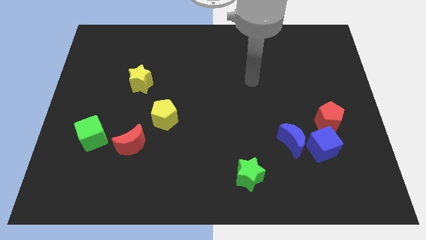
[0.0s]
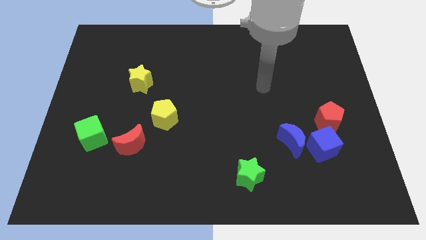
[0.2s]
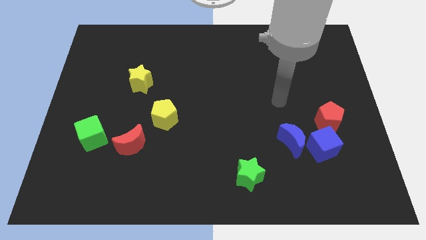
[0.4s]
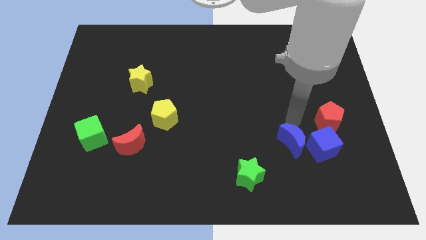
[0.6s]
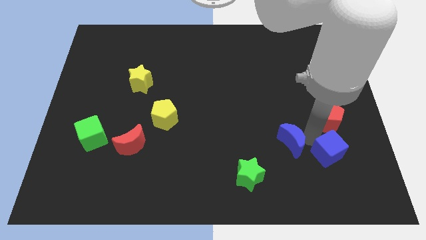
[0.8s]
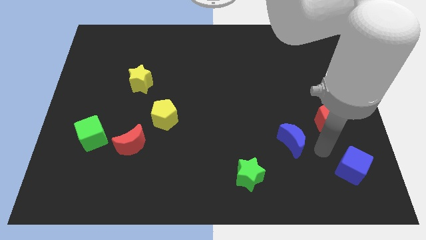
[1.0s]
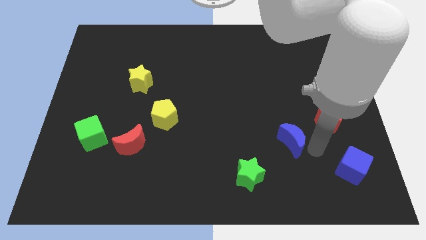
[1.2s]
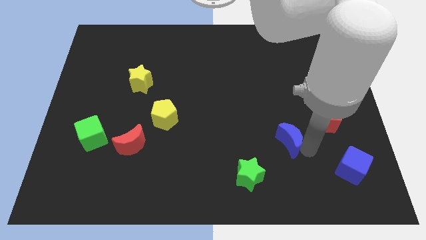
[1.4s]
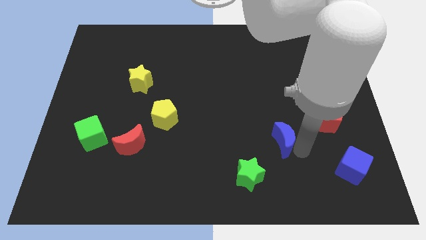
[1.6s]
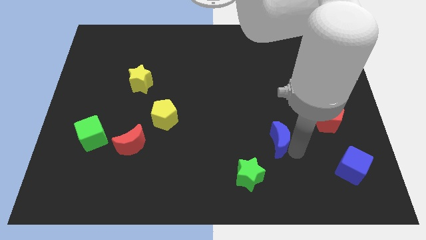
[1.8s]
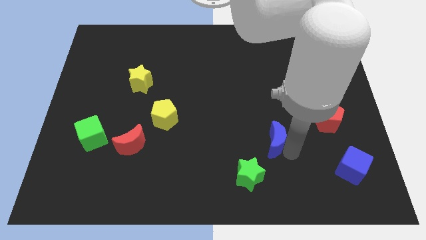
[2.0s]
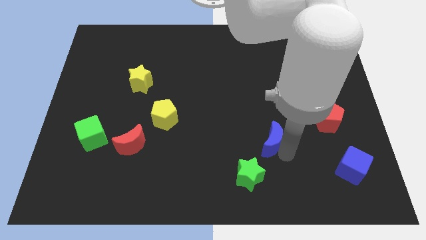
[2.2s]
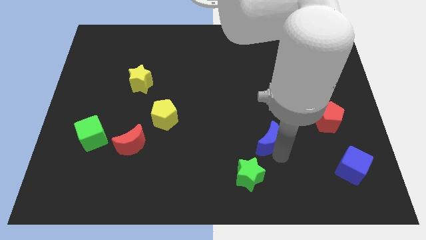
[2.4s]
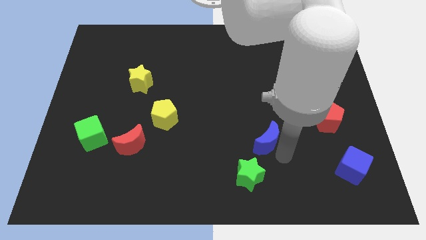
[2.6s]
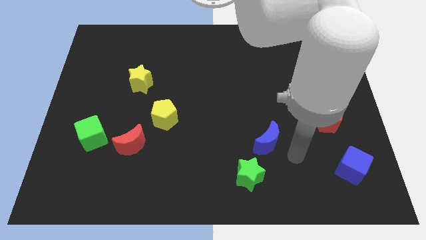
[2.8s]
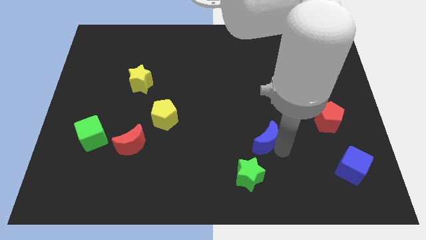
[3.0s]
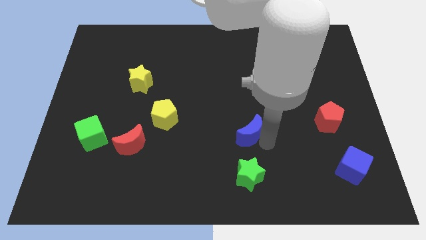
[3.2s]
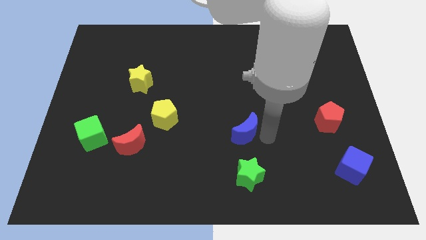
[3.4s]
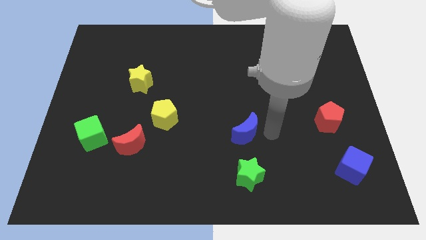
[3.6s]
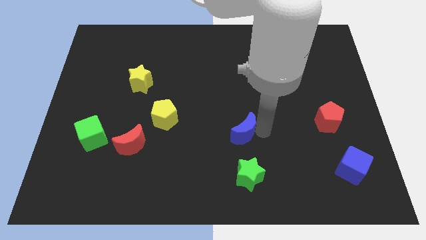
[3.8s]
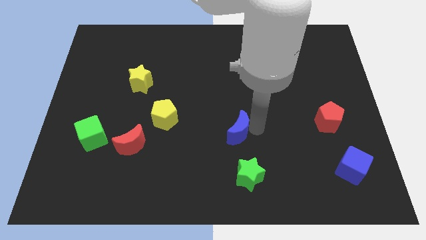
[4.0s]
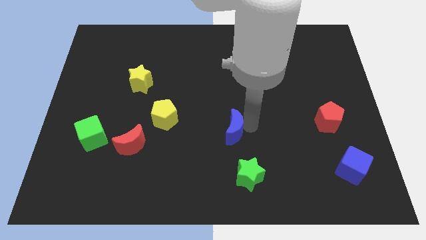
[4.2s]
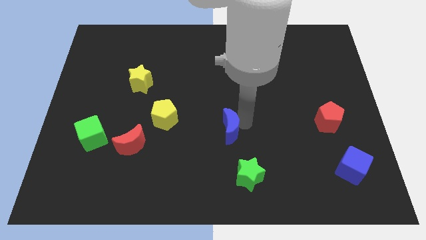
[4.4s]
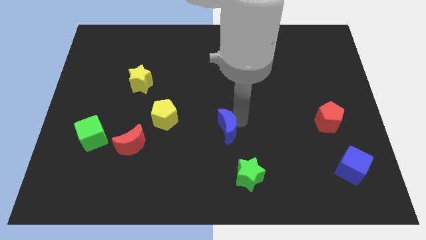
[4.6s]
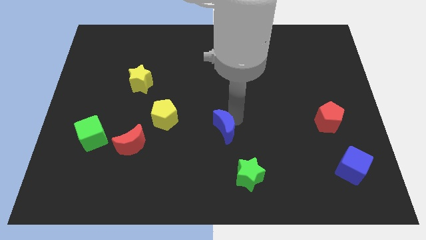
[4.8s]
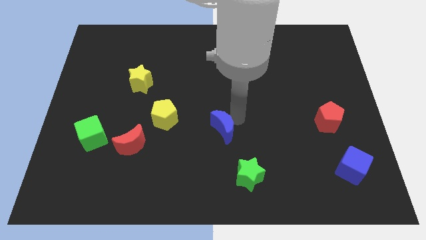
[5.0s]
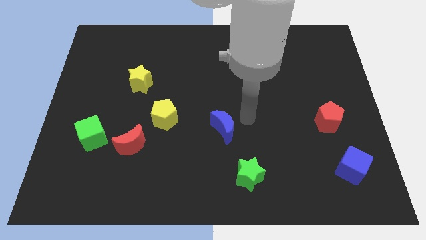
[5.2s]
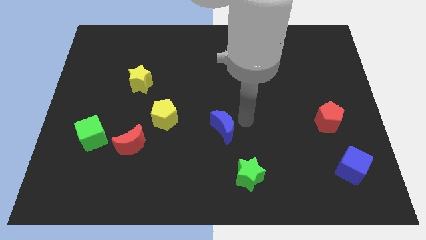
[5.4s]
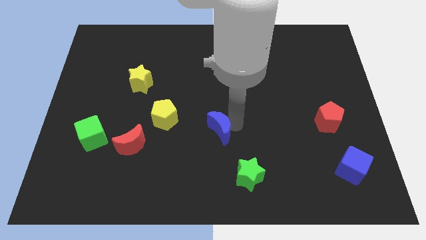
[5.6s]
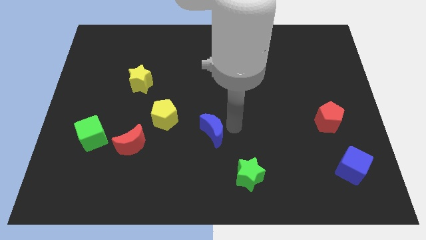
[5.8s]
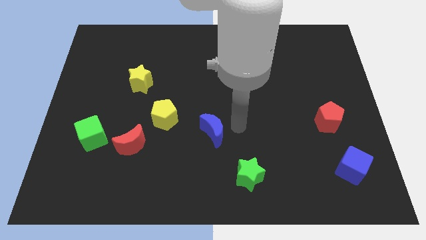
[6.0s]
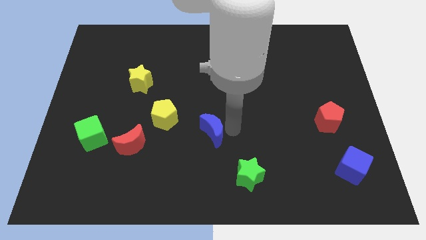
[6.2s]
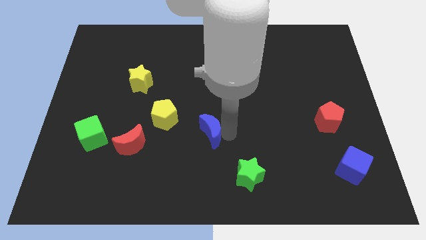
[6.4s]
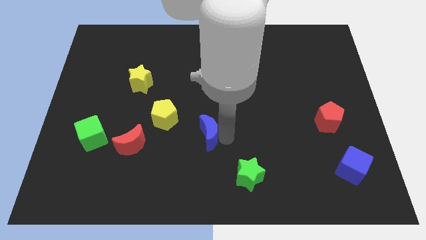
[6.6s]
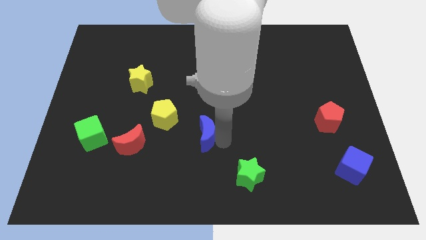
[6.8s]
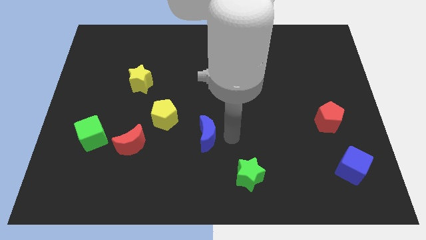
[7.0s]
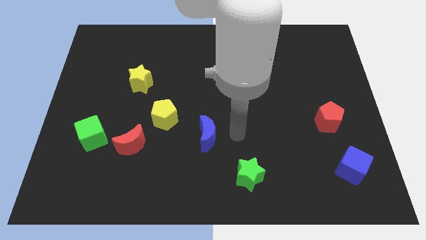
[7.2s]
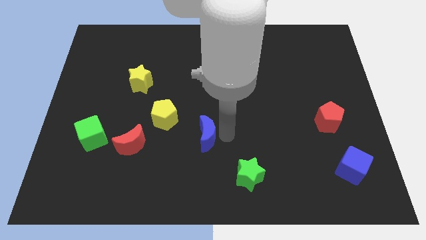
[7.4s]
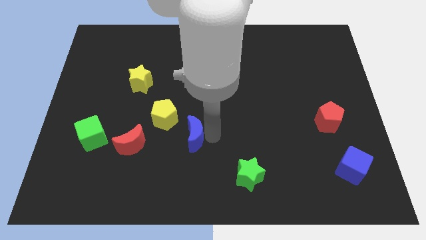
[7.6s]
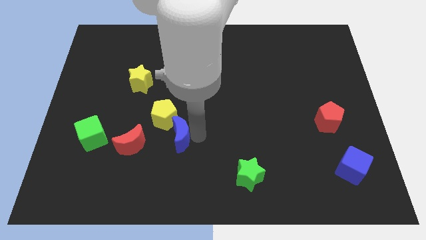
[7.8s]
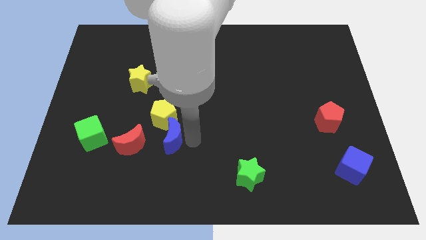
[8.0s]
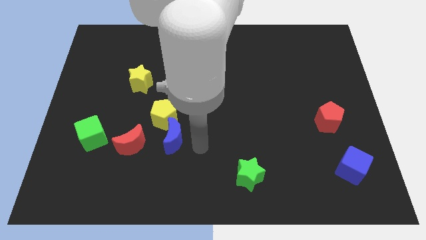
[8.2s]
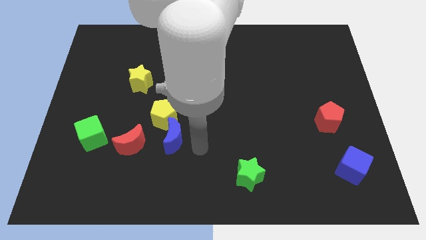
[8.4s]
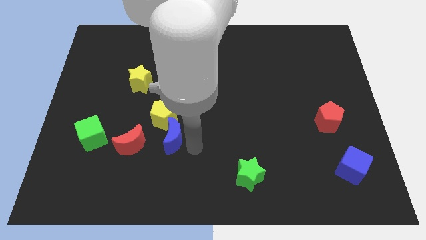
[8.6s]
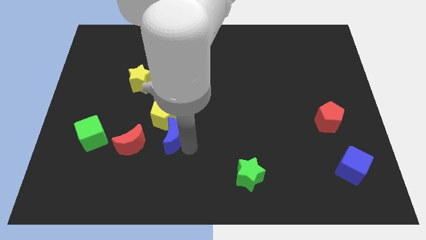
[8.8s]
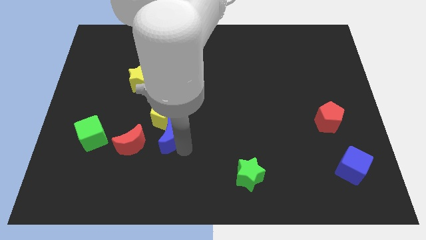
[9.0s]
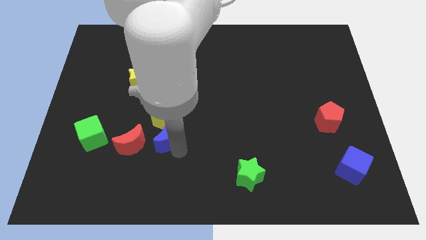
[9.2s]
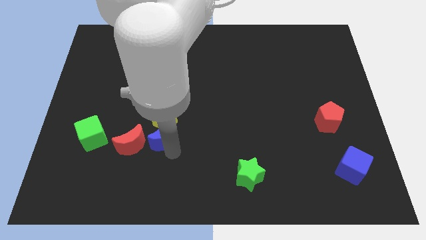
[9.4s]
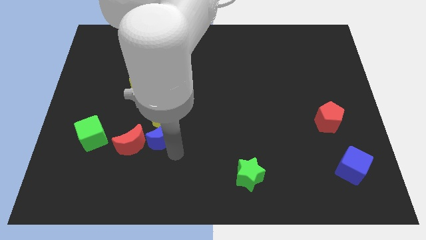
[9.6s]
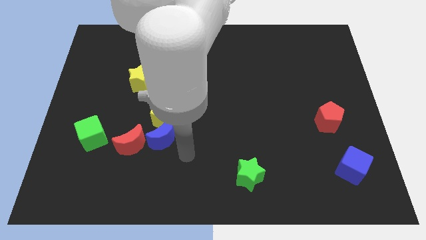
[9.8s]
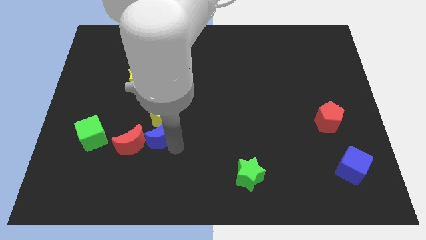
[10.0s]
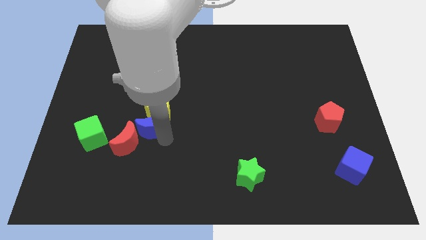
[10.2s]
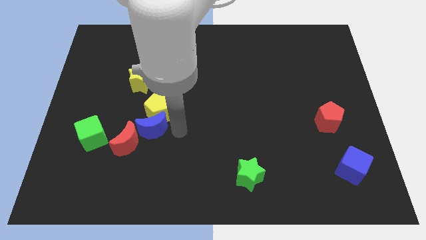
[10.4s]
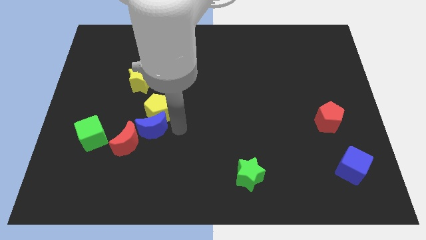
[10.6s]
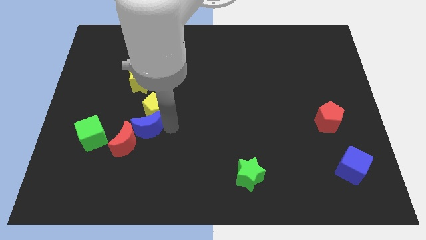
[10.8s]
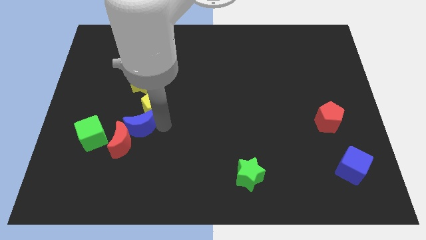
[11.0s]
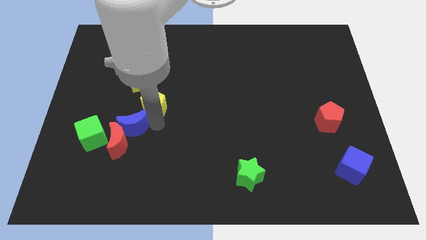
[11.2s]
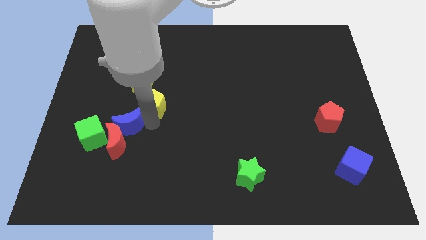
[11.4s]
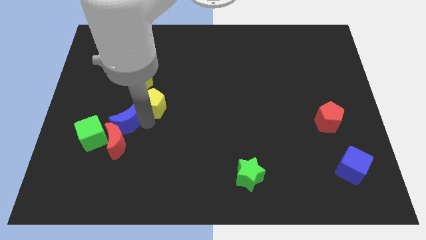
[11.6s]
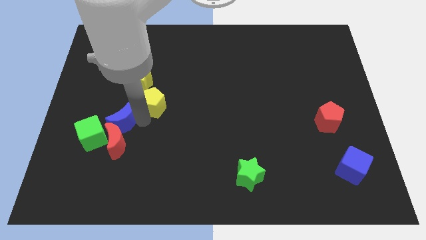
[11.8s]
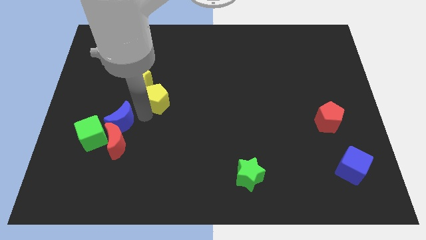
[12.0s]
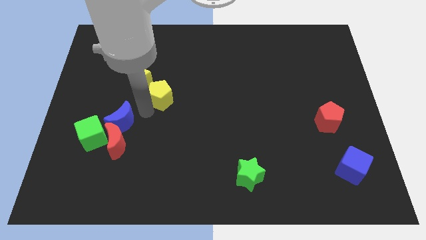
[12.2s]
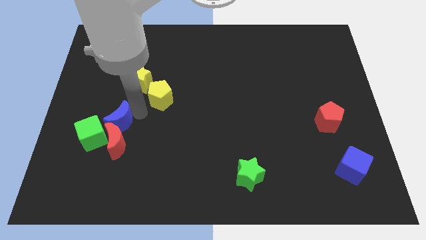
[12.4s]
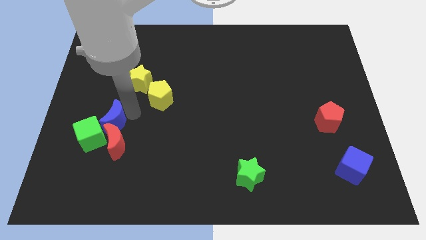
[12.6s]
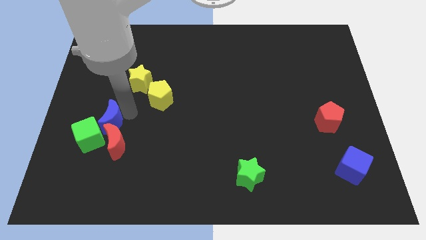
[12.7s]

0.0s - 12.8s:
put the blue moon close to the green cube

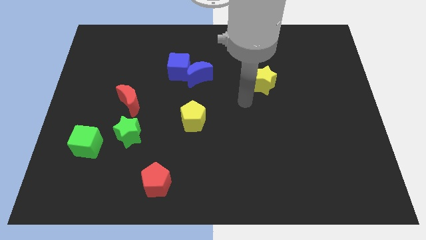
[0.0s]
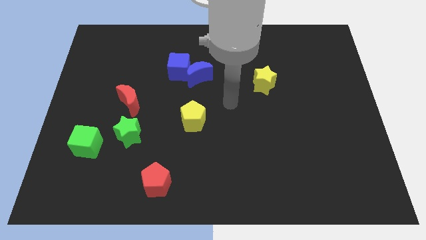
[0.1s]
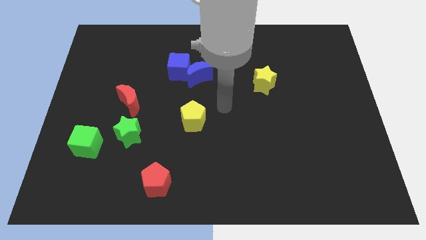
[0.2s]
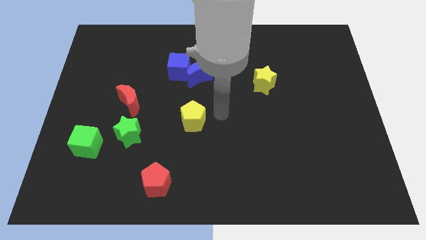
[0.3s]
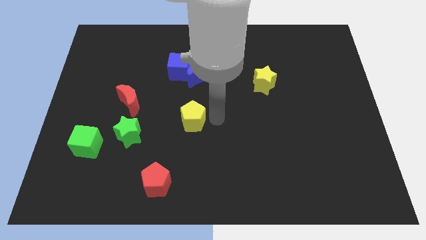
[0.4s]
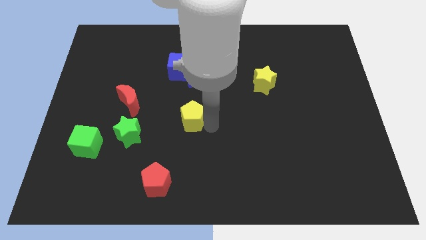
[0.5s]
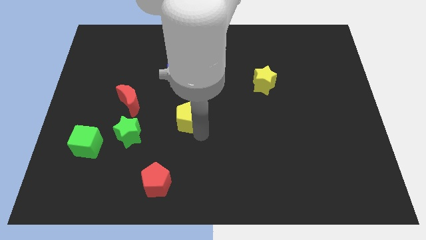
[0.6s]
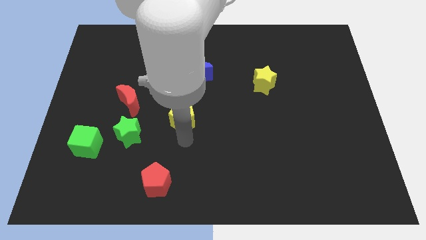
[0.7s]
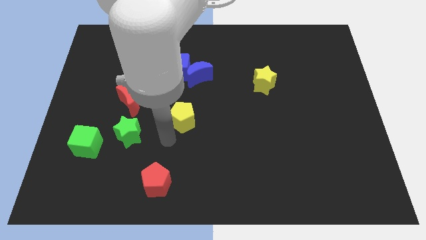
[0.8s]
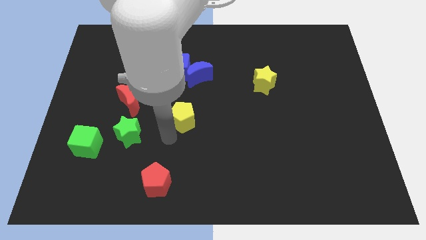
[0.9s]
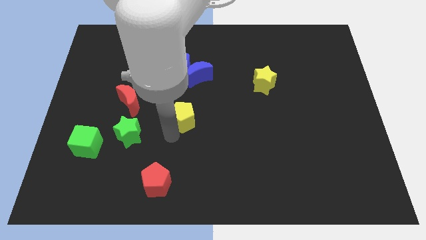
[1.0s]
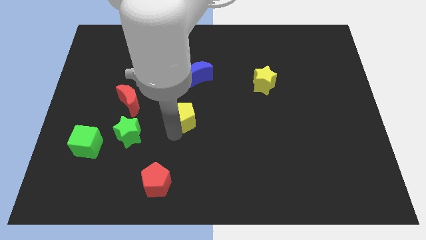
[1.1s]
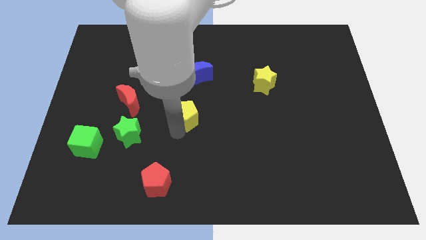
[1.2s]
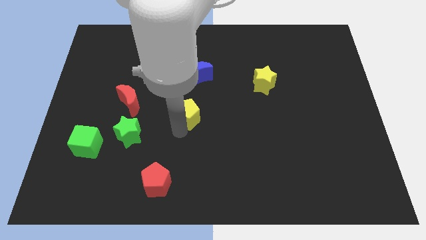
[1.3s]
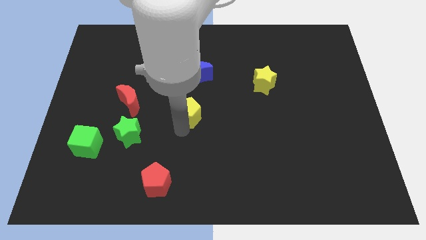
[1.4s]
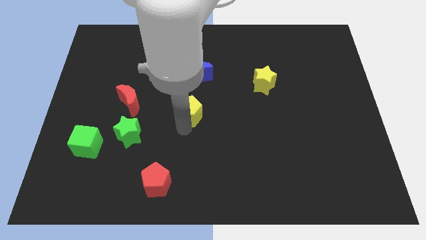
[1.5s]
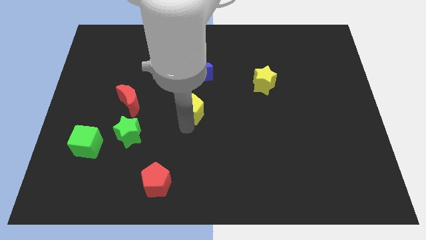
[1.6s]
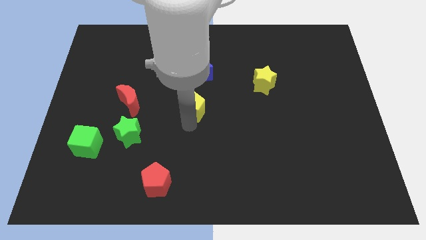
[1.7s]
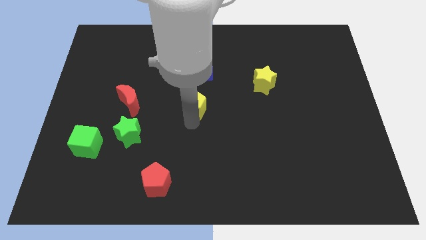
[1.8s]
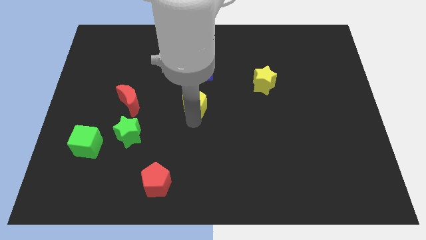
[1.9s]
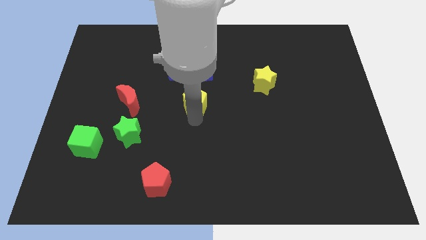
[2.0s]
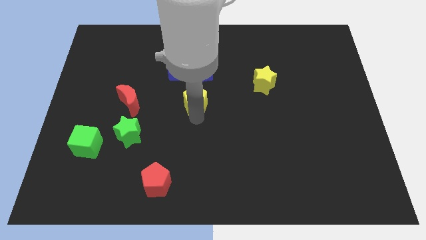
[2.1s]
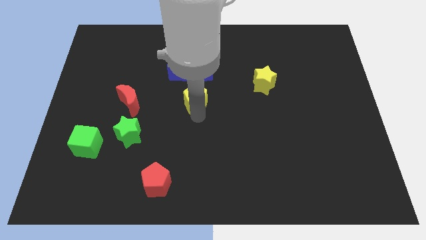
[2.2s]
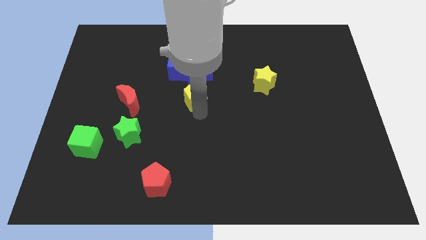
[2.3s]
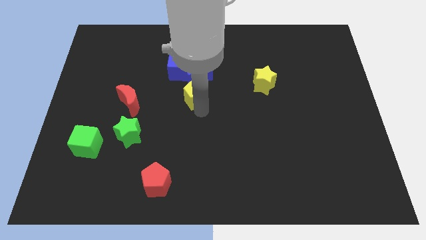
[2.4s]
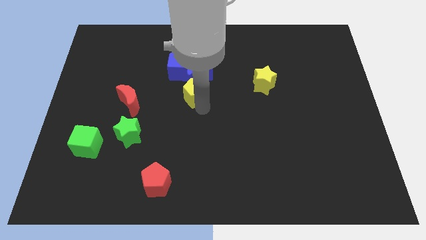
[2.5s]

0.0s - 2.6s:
move the yellow pentagon towards the blue moon
